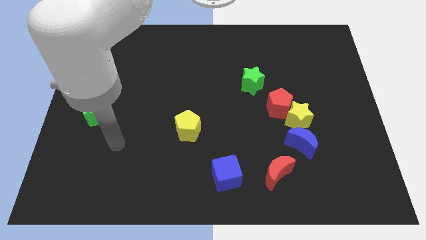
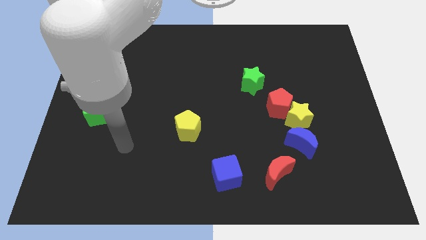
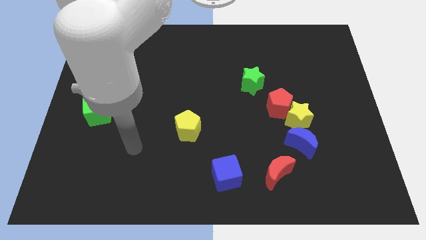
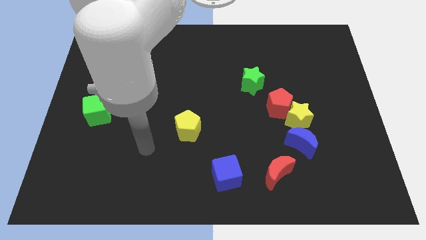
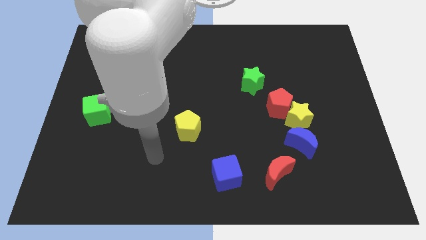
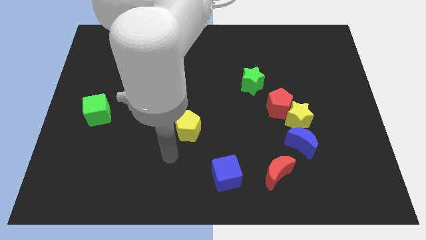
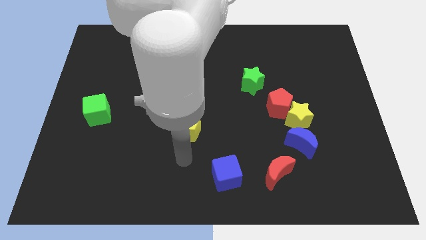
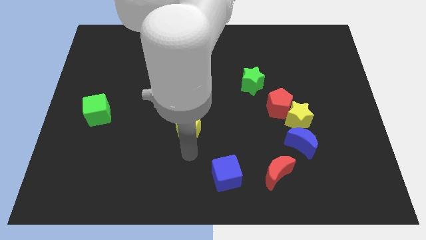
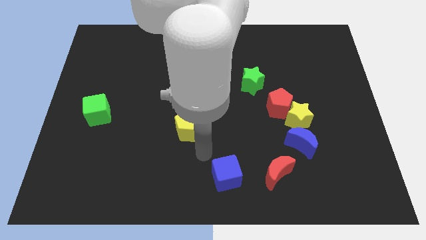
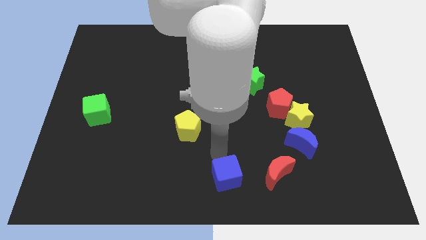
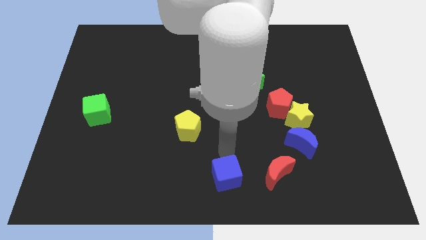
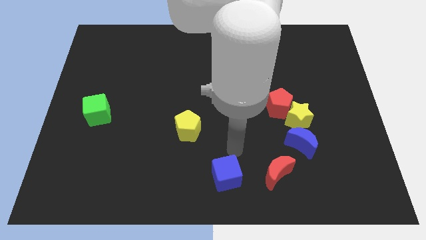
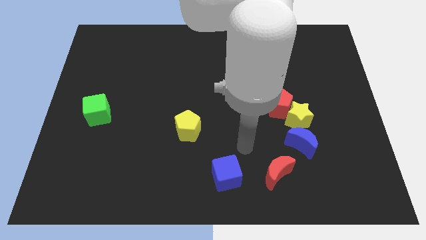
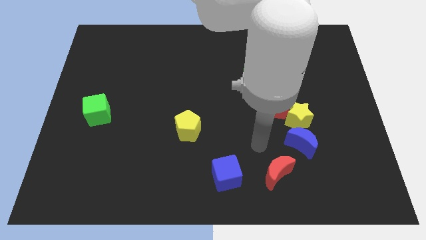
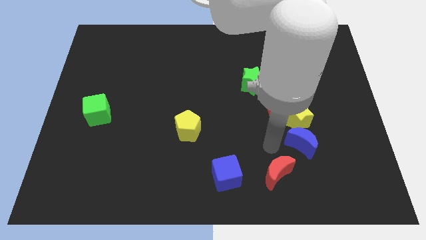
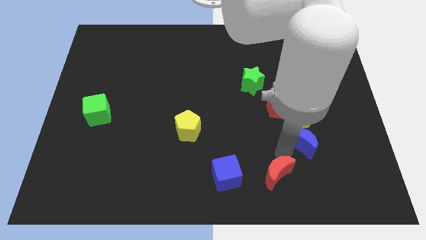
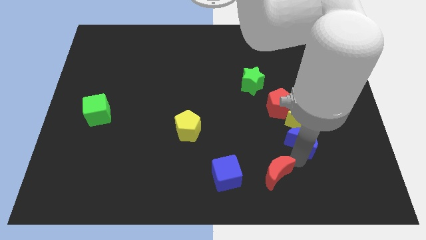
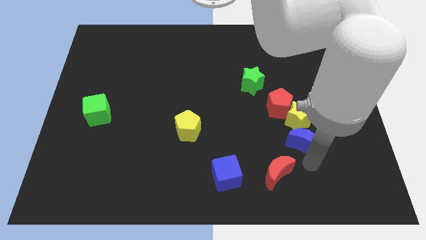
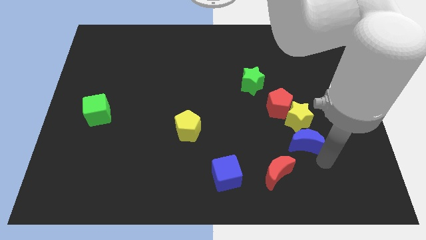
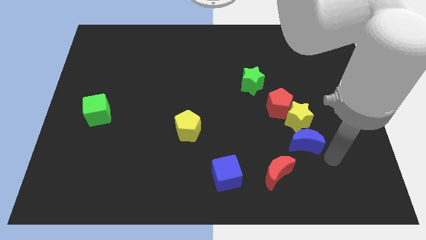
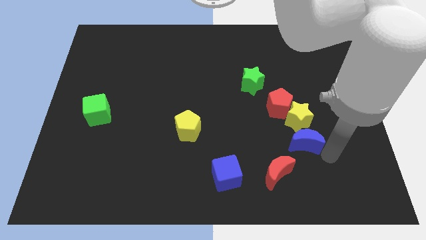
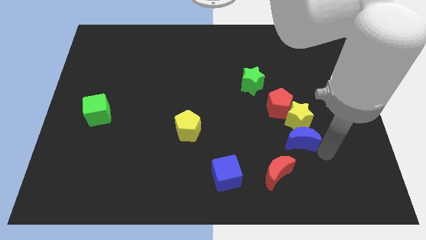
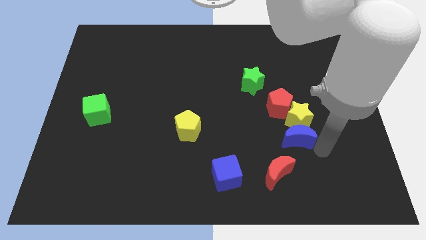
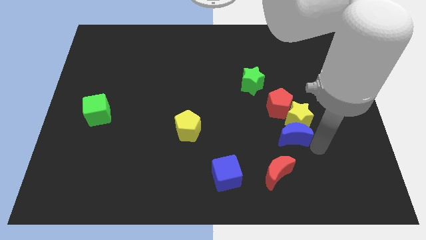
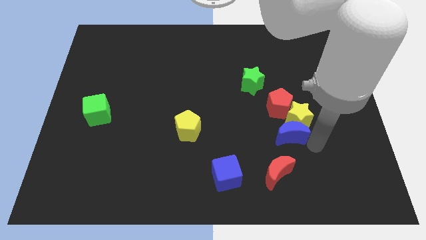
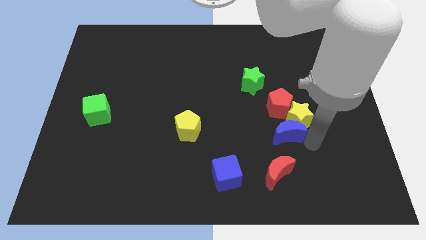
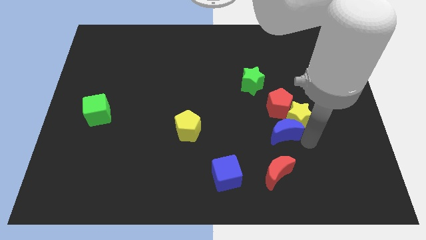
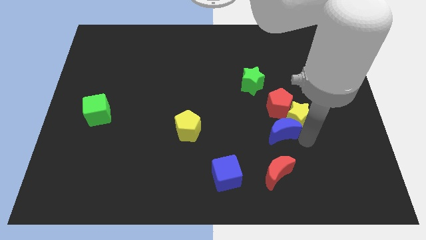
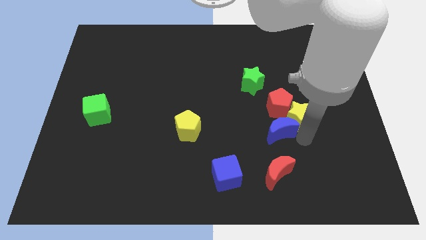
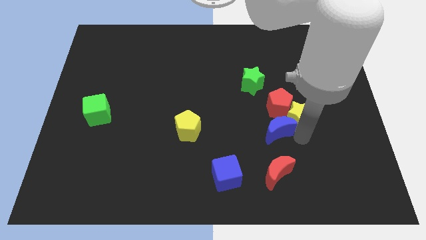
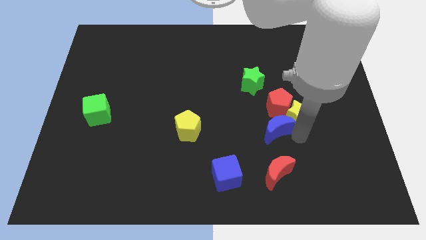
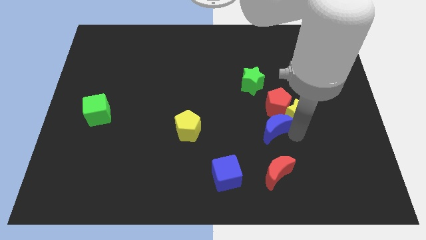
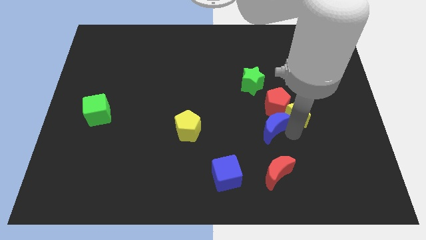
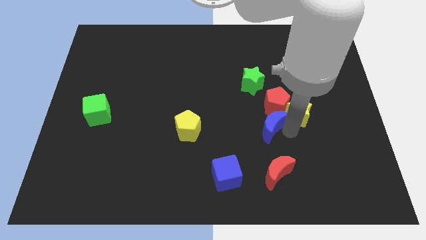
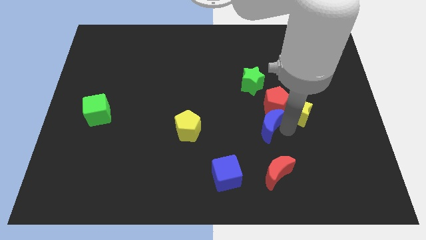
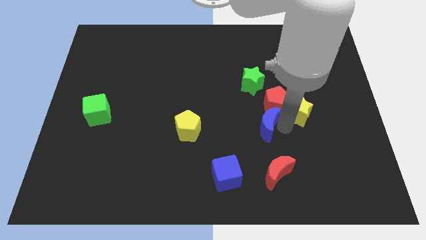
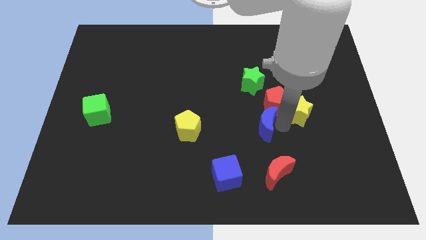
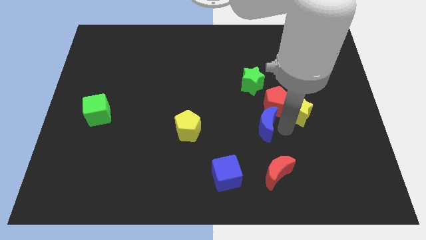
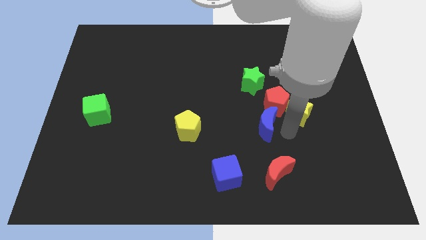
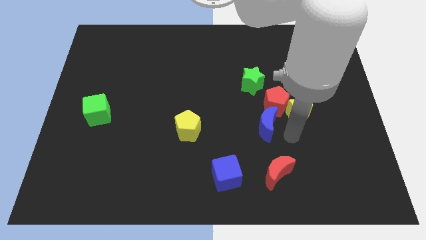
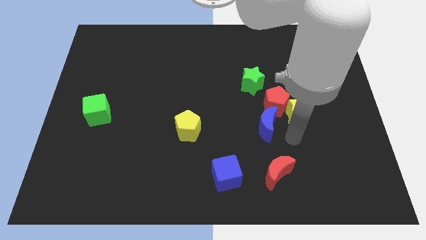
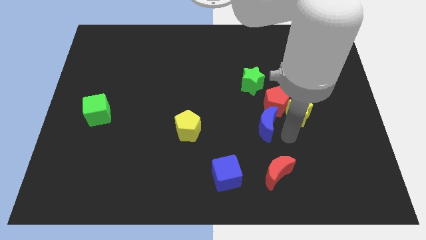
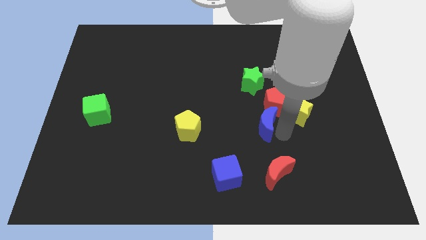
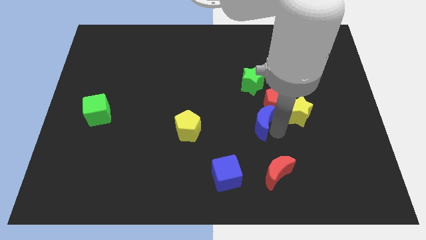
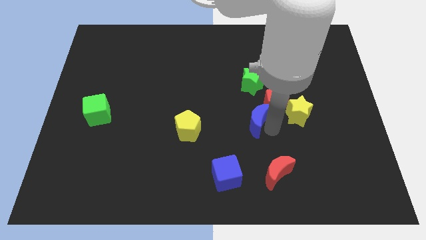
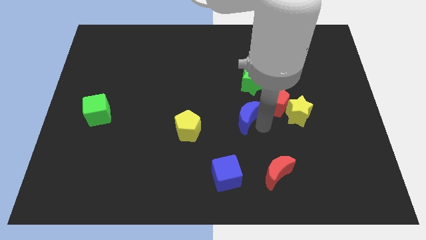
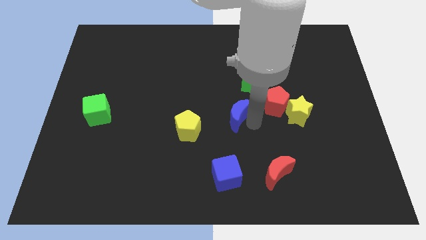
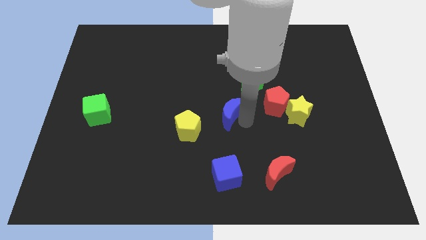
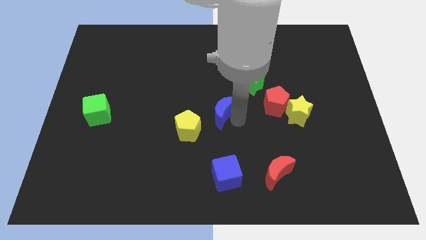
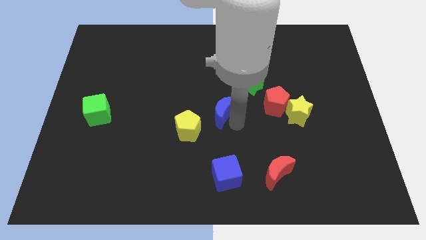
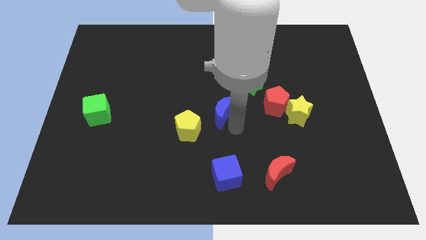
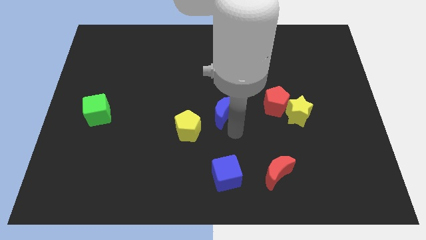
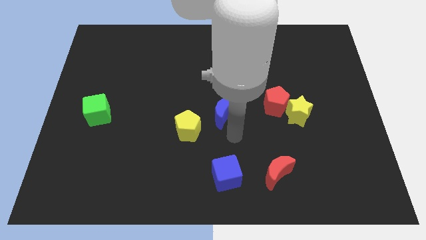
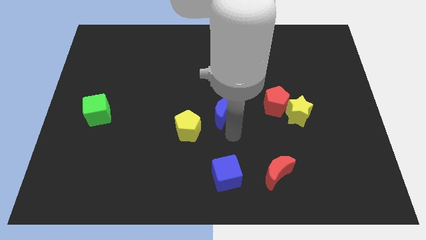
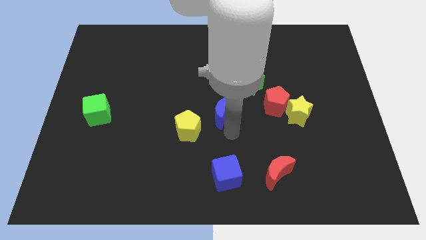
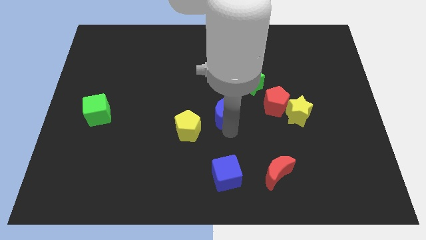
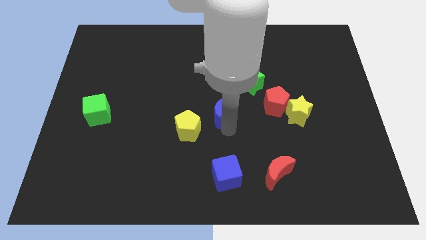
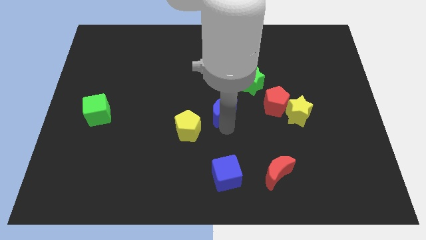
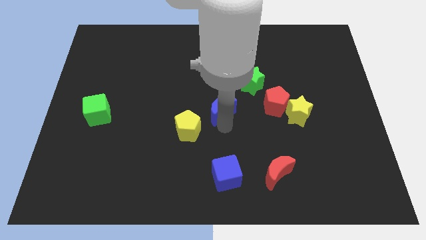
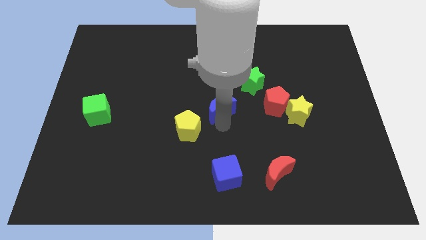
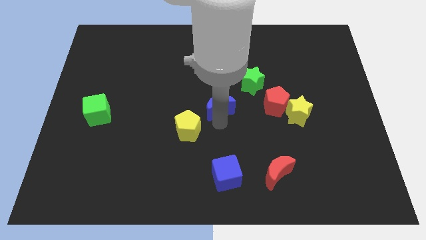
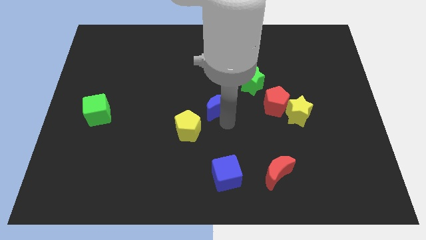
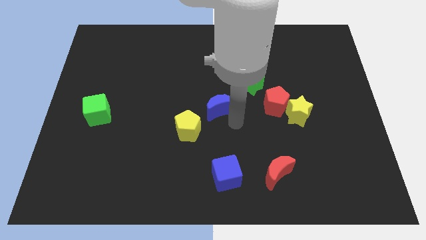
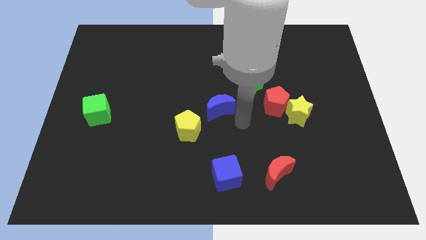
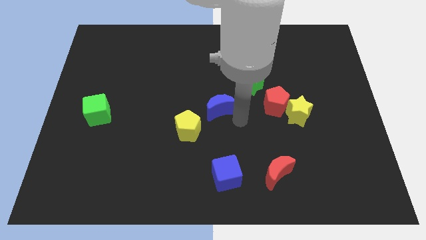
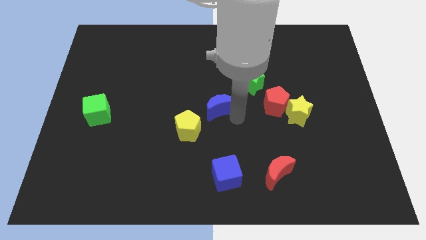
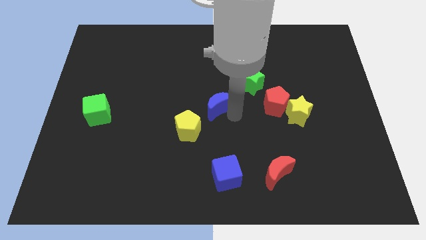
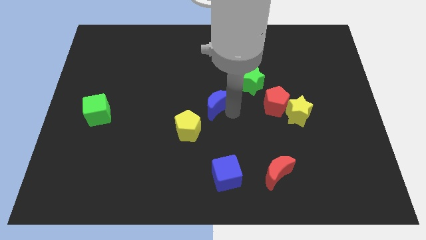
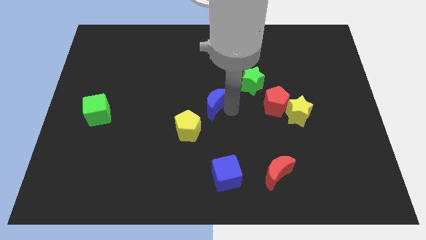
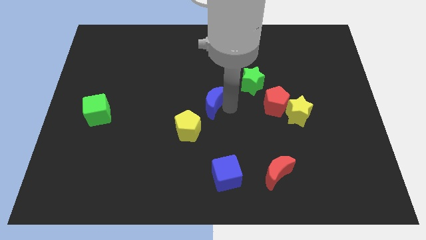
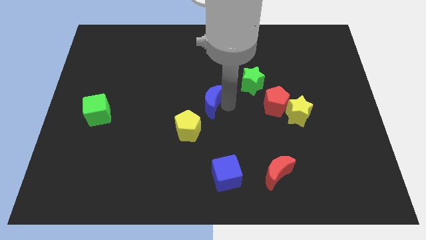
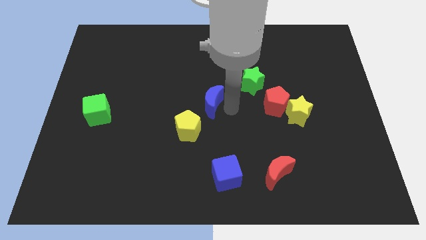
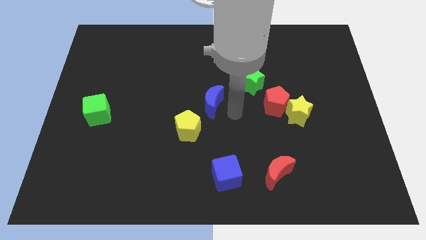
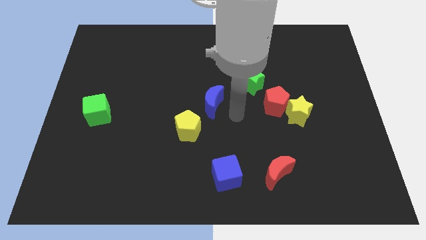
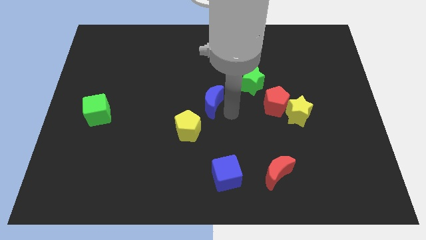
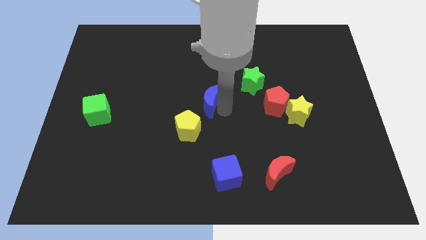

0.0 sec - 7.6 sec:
slide the blue moon to the top side of the yellow pentagon
